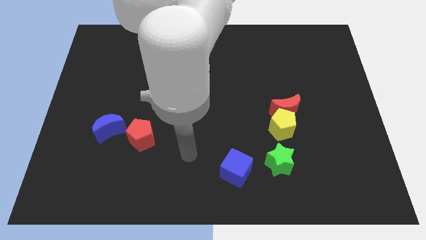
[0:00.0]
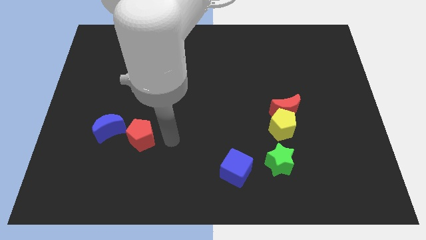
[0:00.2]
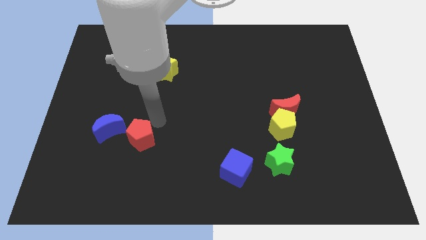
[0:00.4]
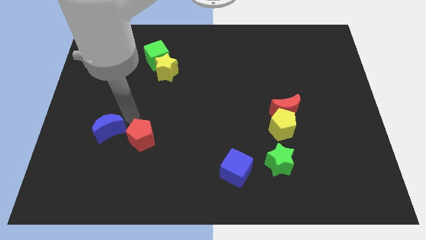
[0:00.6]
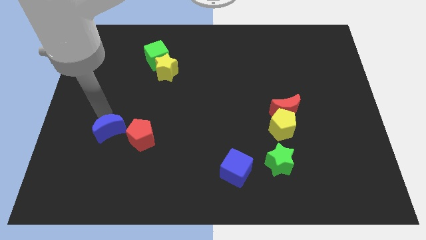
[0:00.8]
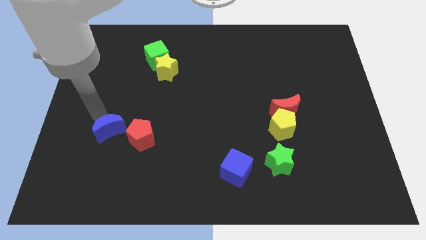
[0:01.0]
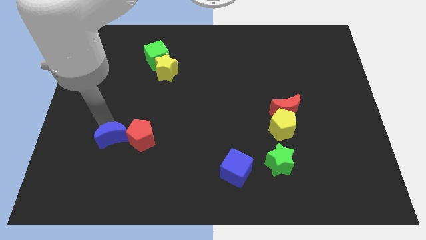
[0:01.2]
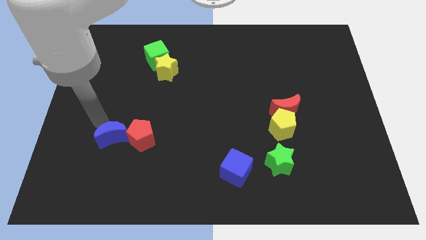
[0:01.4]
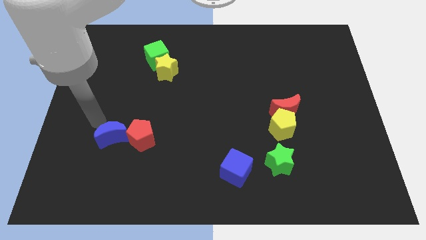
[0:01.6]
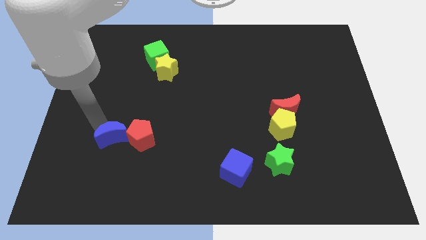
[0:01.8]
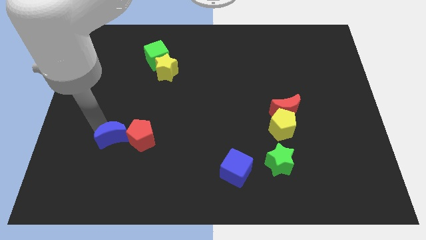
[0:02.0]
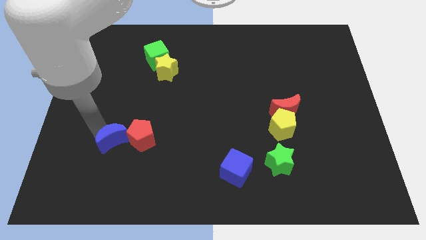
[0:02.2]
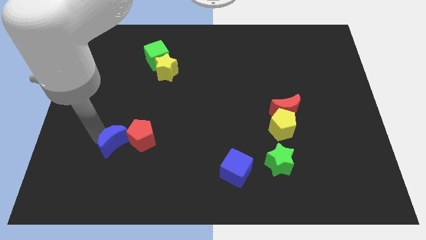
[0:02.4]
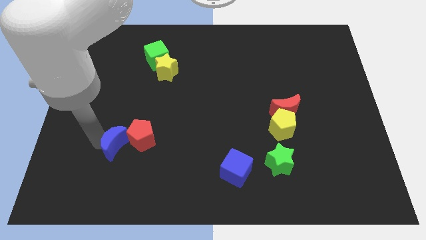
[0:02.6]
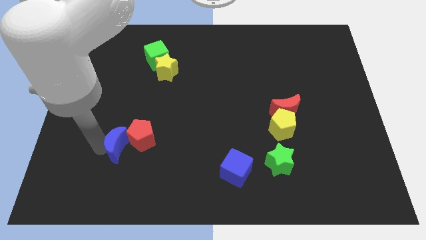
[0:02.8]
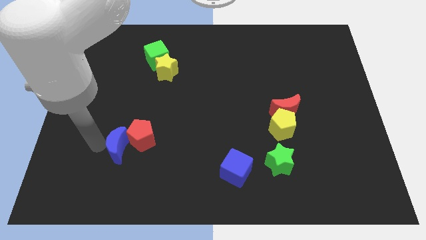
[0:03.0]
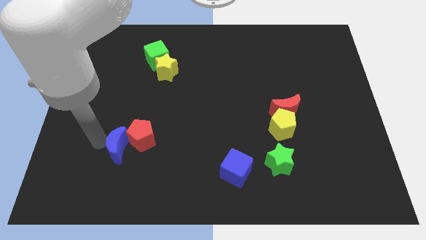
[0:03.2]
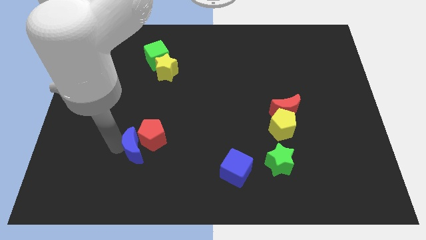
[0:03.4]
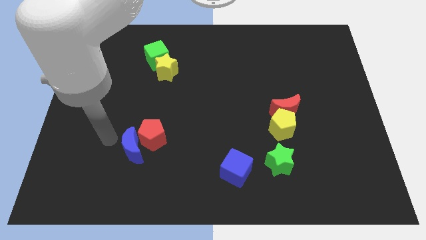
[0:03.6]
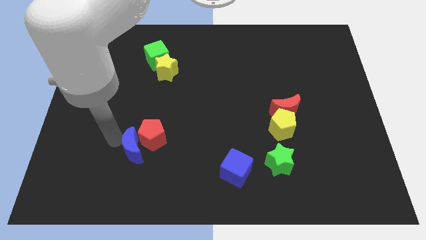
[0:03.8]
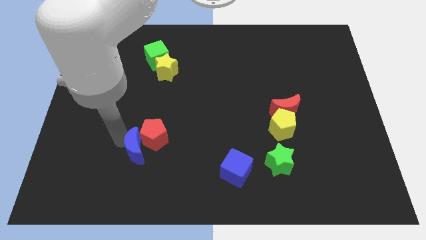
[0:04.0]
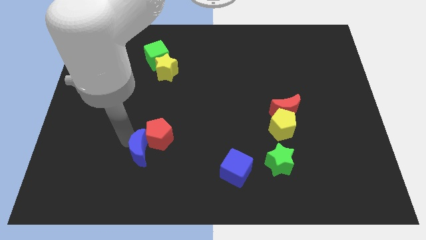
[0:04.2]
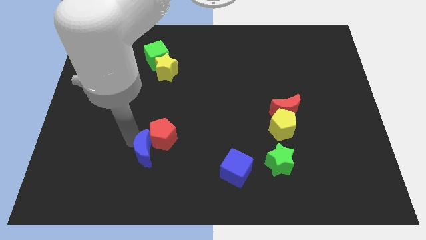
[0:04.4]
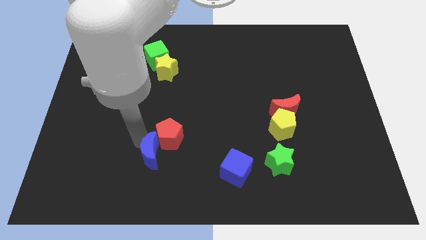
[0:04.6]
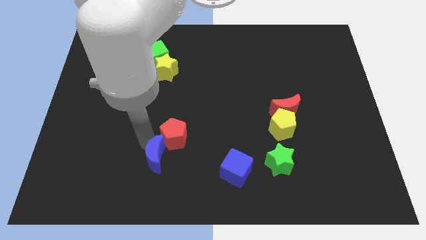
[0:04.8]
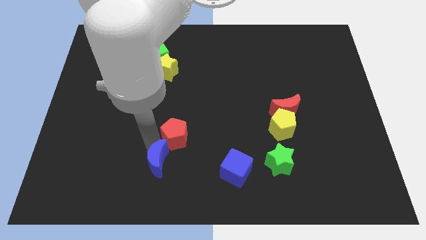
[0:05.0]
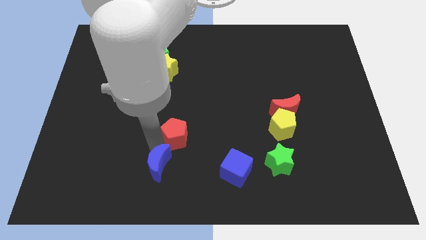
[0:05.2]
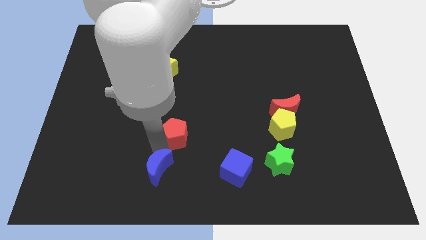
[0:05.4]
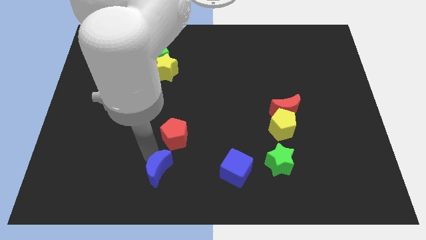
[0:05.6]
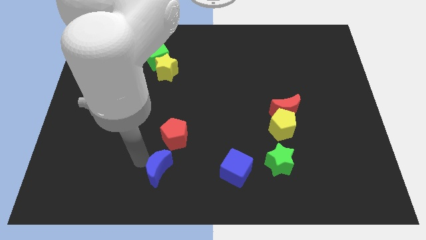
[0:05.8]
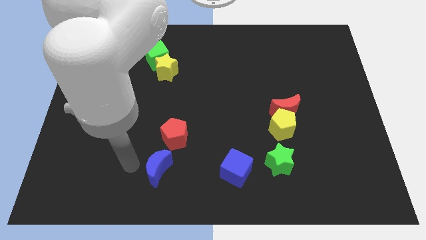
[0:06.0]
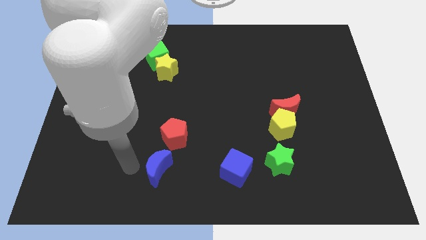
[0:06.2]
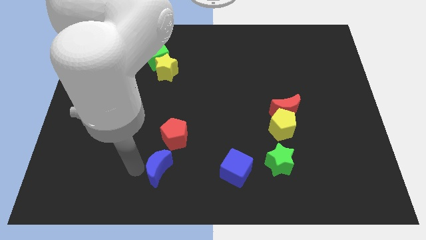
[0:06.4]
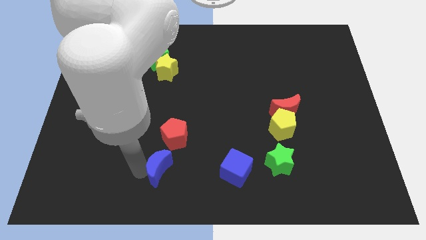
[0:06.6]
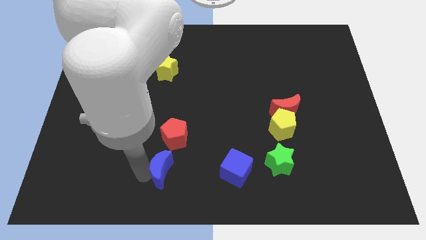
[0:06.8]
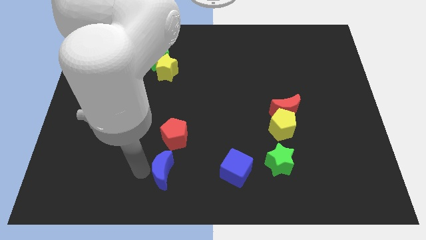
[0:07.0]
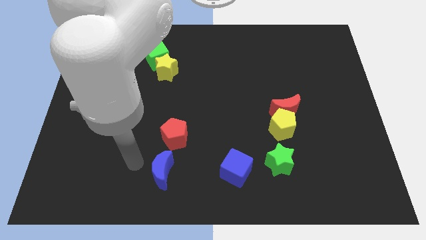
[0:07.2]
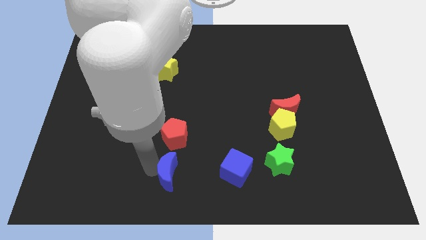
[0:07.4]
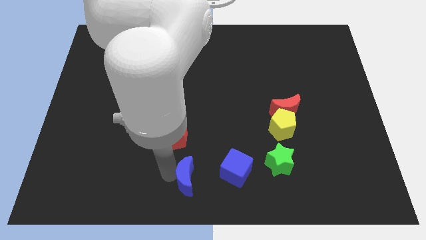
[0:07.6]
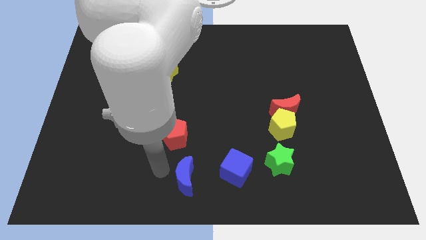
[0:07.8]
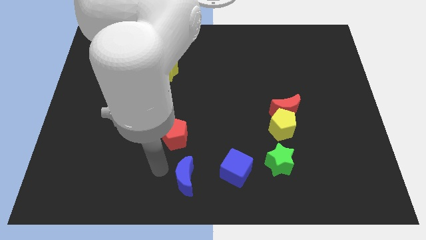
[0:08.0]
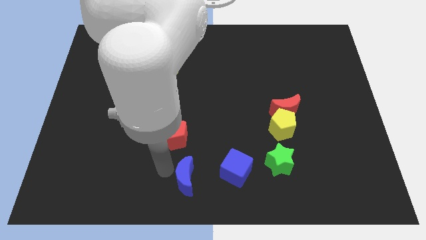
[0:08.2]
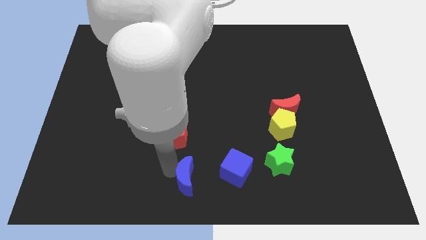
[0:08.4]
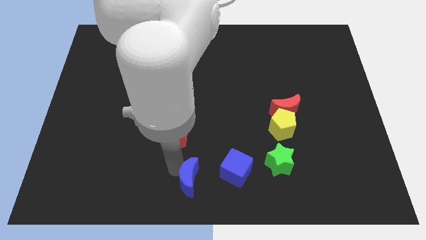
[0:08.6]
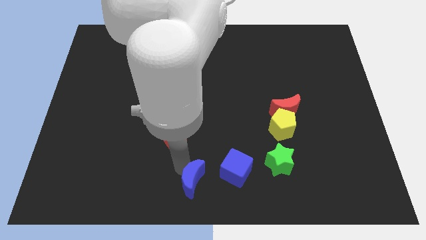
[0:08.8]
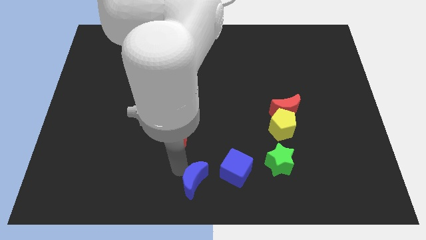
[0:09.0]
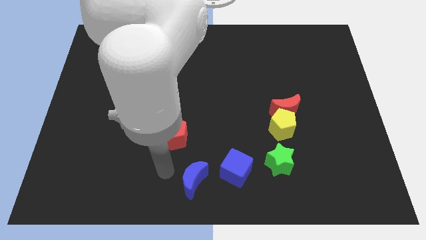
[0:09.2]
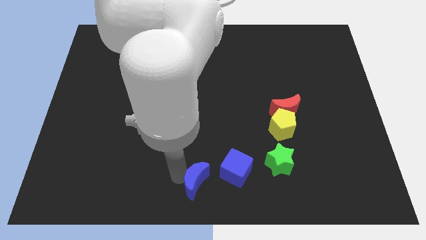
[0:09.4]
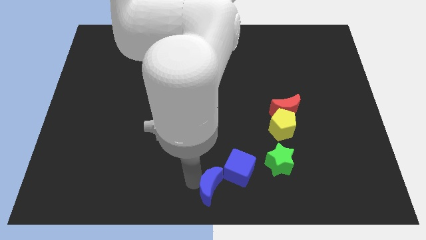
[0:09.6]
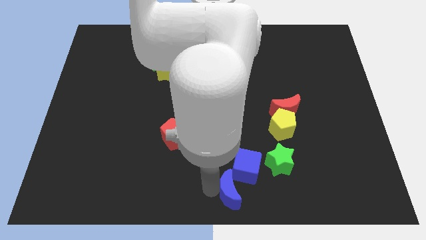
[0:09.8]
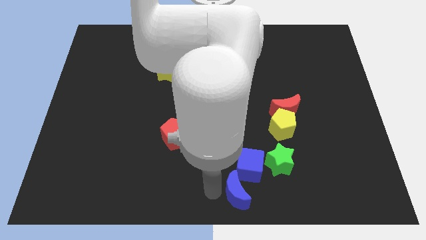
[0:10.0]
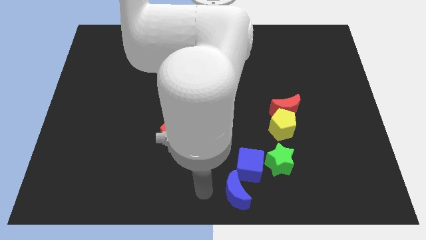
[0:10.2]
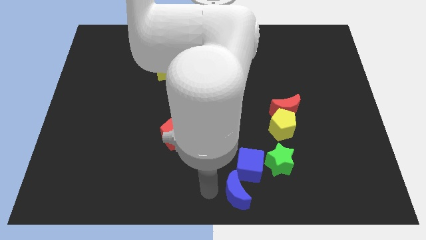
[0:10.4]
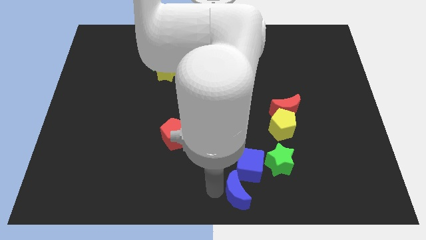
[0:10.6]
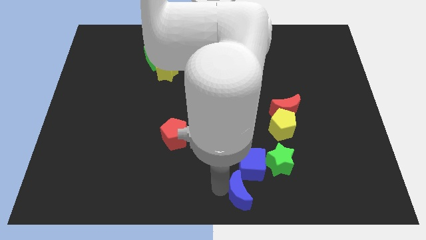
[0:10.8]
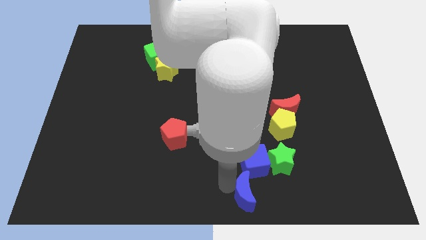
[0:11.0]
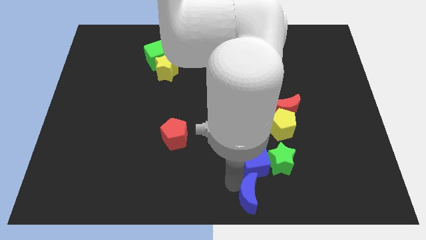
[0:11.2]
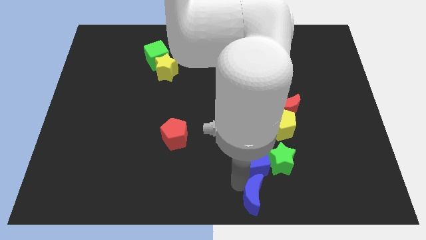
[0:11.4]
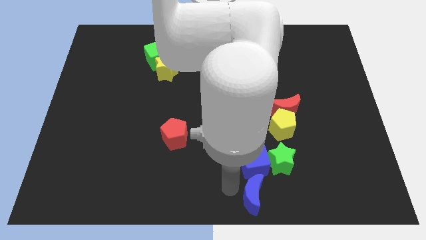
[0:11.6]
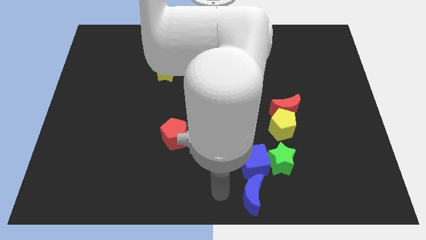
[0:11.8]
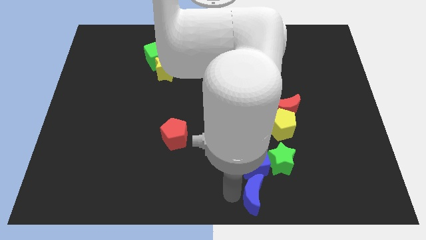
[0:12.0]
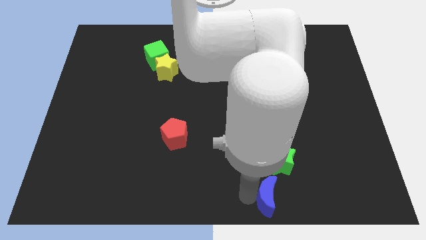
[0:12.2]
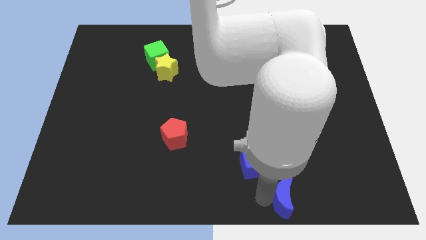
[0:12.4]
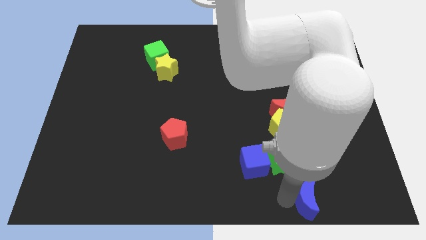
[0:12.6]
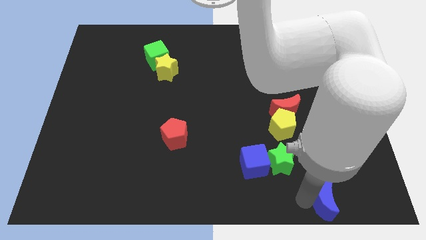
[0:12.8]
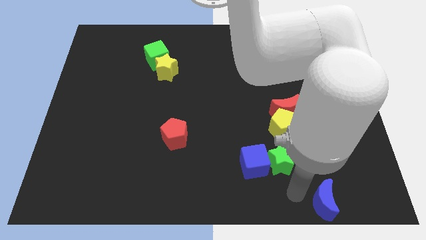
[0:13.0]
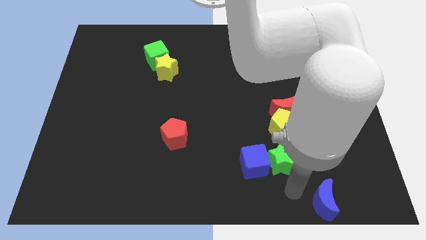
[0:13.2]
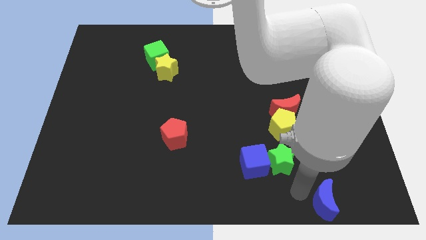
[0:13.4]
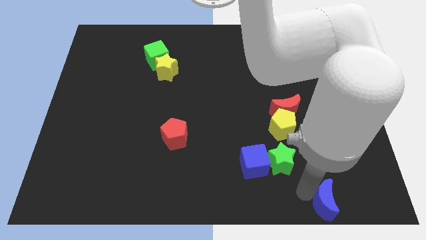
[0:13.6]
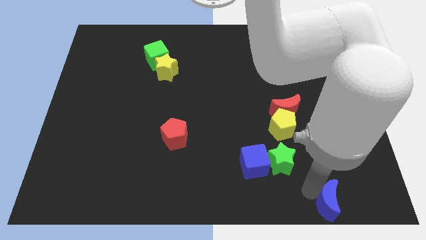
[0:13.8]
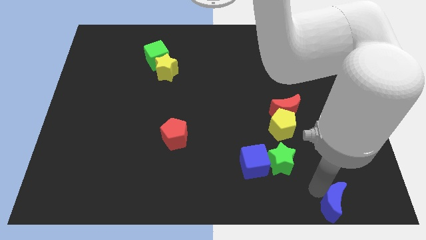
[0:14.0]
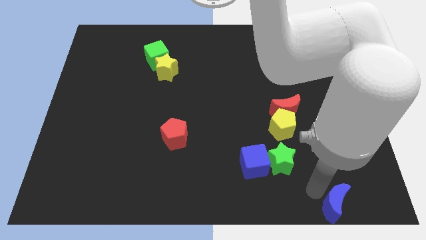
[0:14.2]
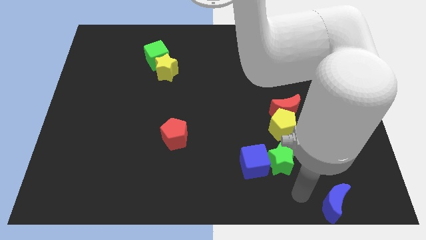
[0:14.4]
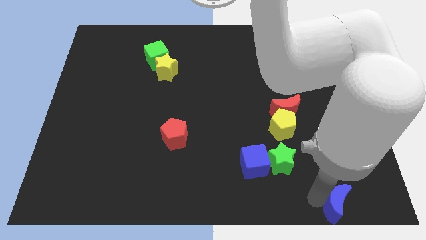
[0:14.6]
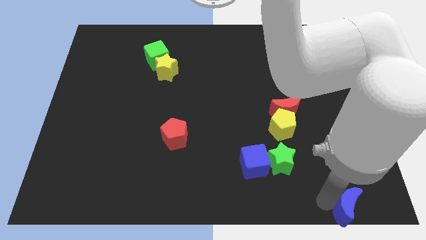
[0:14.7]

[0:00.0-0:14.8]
slide the blue moon to the bottom right of the board
